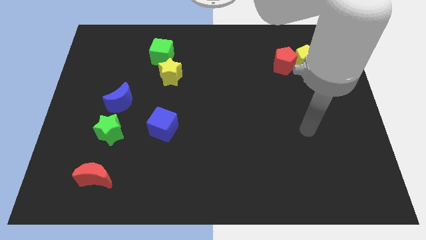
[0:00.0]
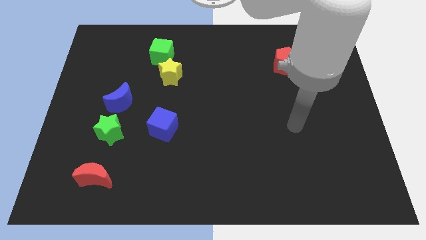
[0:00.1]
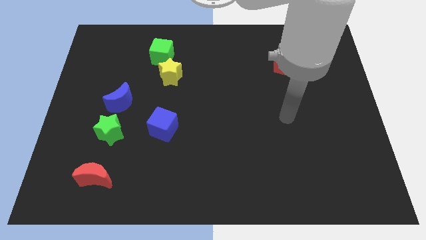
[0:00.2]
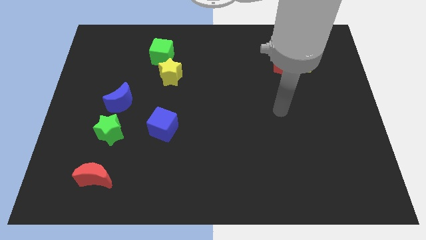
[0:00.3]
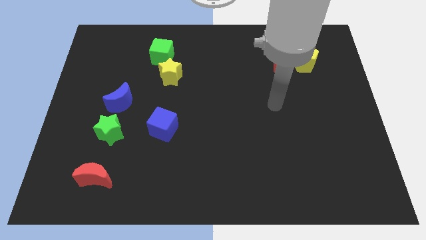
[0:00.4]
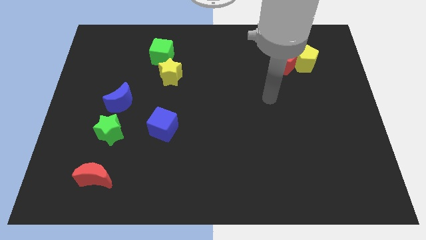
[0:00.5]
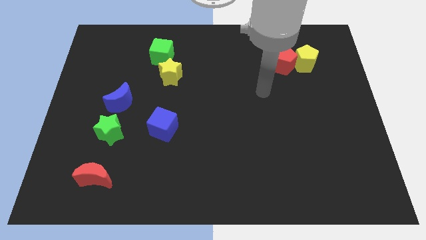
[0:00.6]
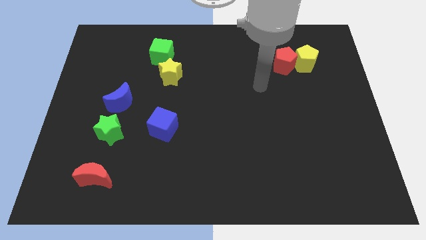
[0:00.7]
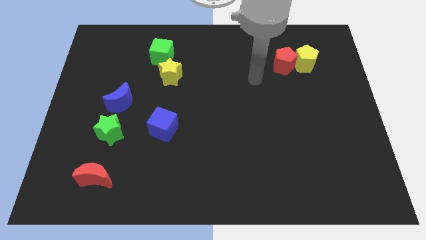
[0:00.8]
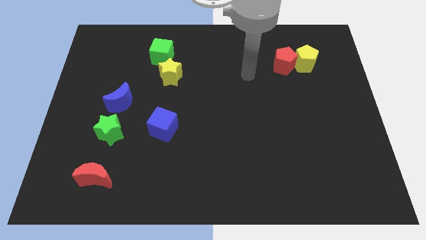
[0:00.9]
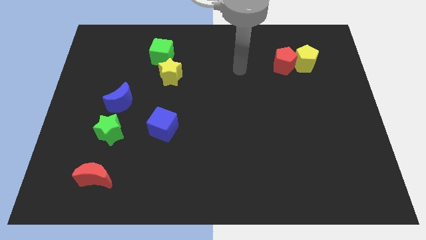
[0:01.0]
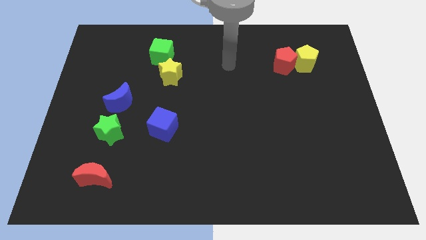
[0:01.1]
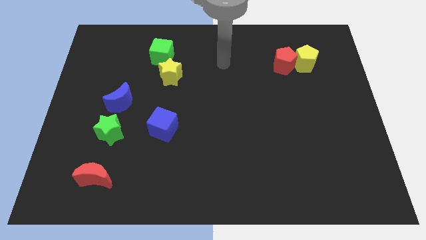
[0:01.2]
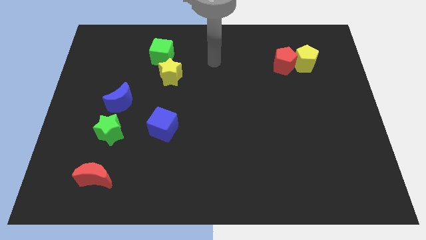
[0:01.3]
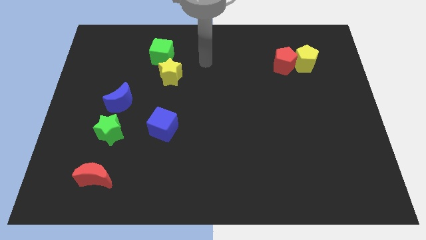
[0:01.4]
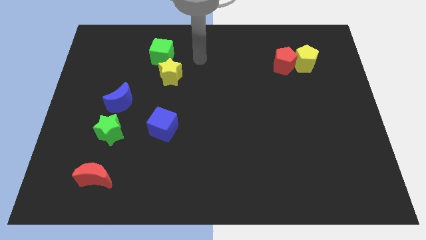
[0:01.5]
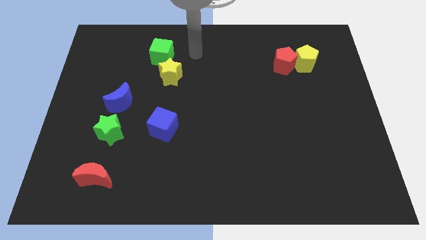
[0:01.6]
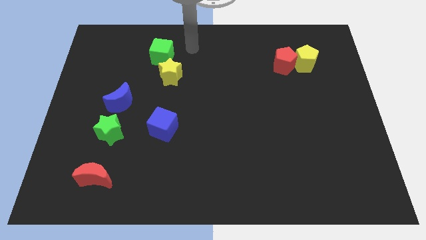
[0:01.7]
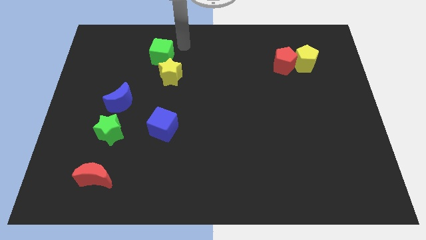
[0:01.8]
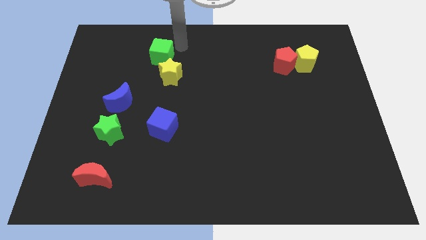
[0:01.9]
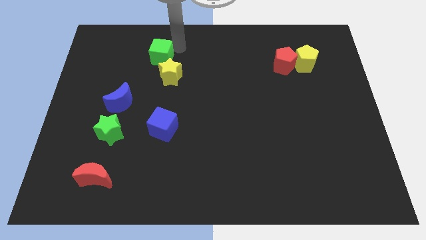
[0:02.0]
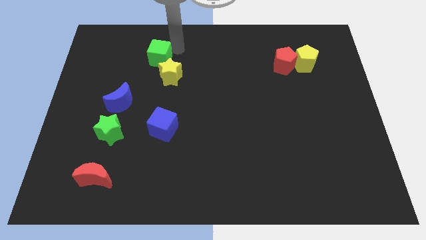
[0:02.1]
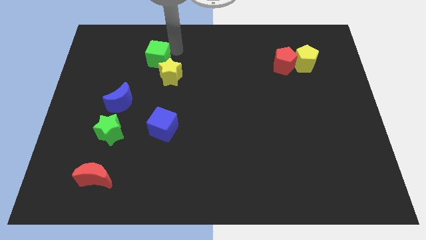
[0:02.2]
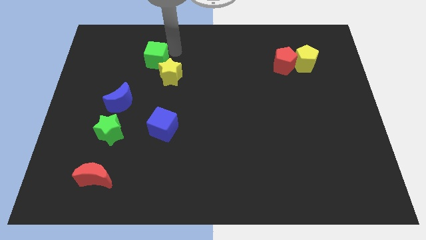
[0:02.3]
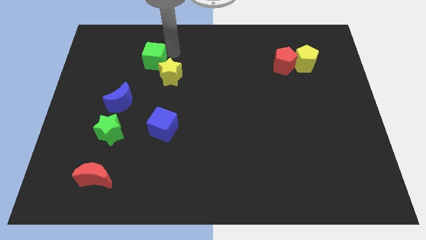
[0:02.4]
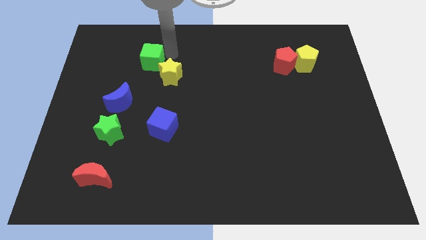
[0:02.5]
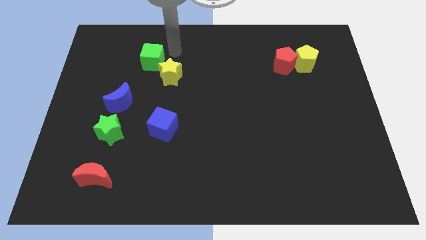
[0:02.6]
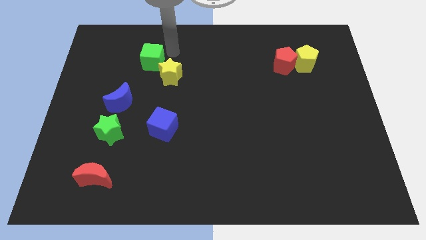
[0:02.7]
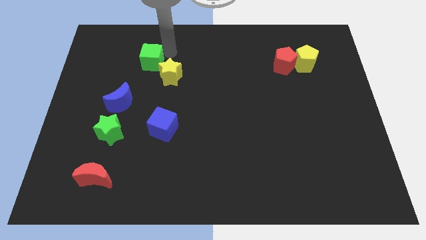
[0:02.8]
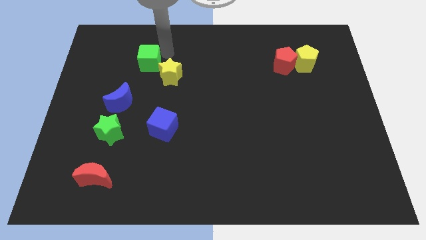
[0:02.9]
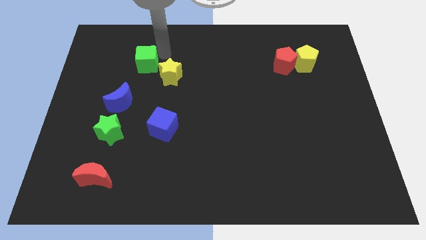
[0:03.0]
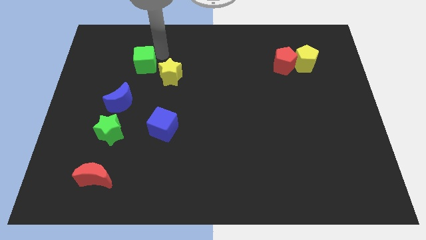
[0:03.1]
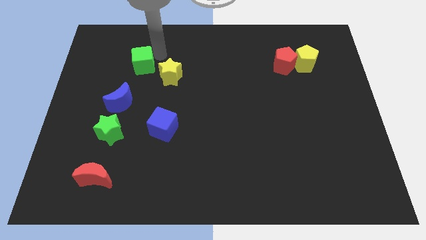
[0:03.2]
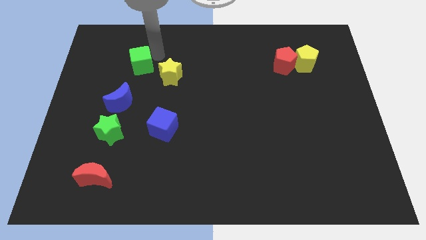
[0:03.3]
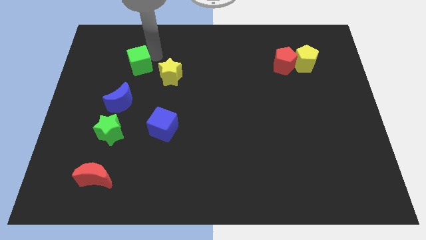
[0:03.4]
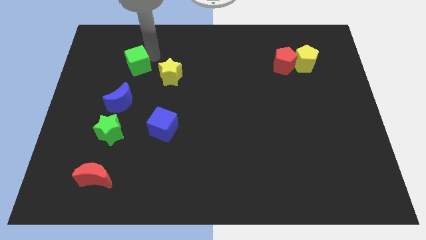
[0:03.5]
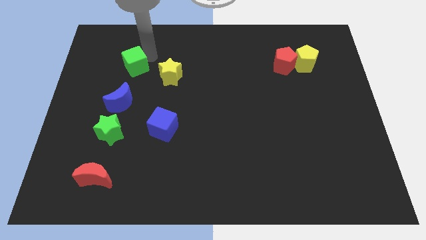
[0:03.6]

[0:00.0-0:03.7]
slightly slide the green cube diagonally down and to the left

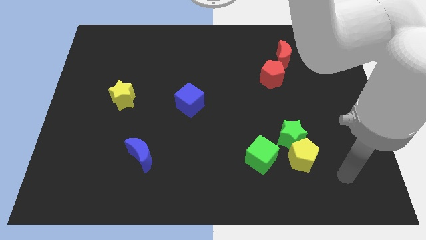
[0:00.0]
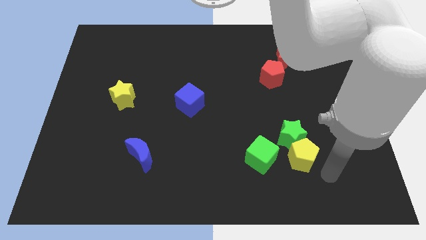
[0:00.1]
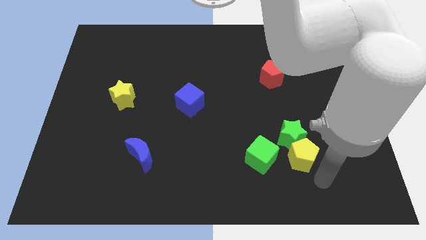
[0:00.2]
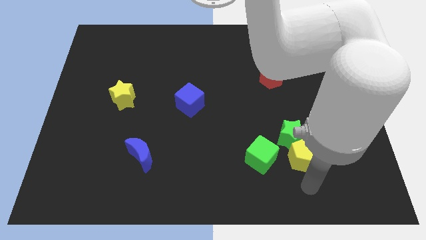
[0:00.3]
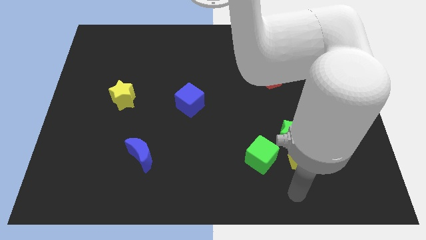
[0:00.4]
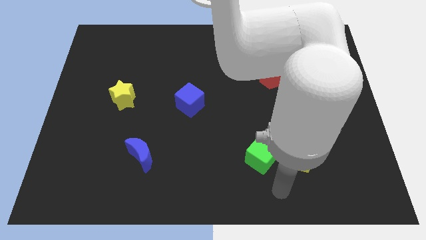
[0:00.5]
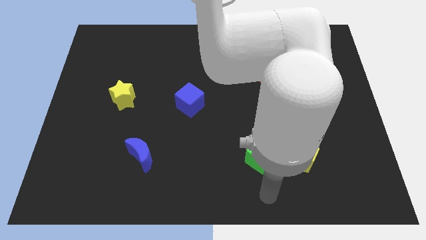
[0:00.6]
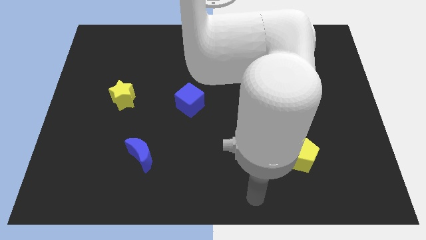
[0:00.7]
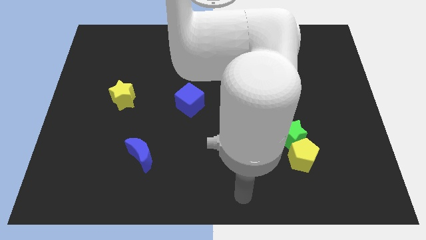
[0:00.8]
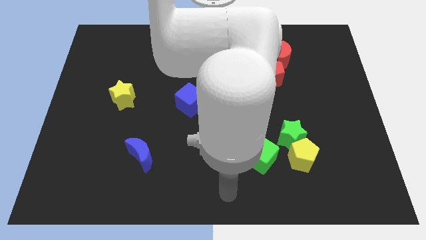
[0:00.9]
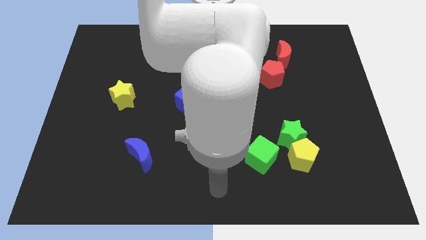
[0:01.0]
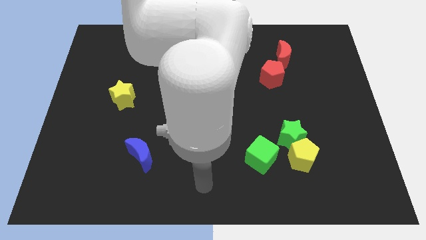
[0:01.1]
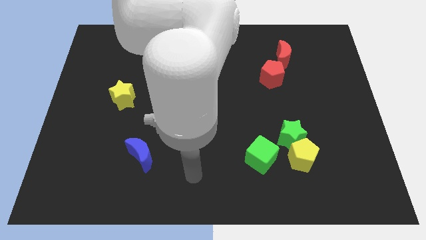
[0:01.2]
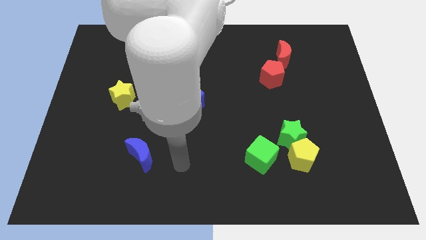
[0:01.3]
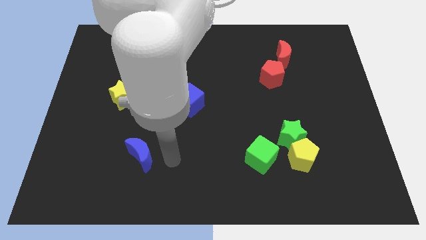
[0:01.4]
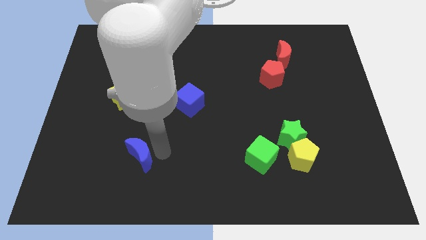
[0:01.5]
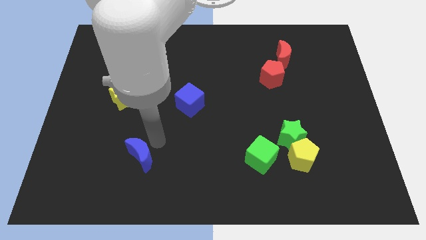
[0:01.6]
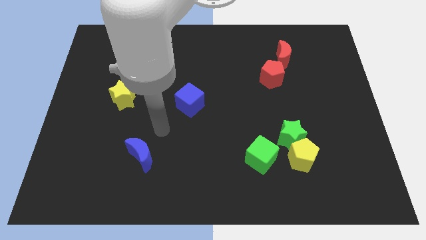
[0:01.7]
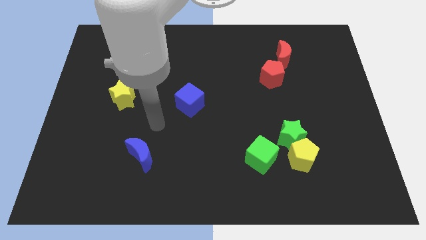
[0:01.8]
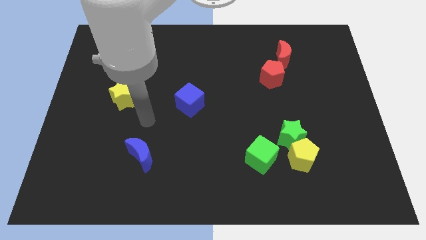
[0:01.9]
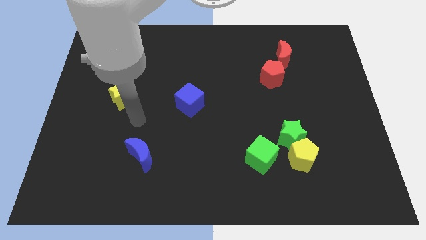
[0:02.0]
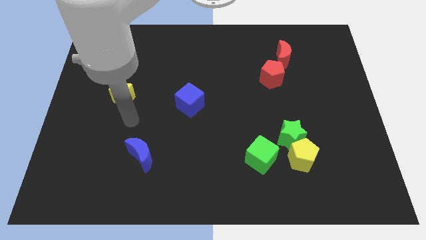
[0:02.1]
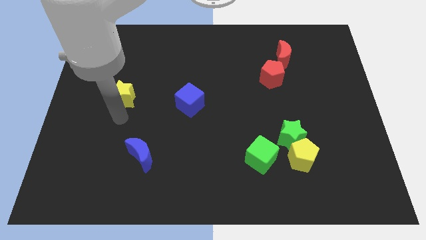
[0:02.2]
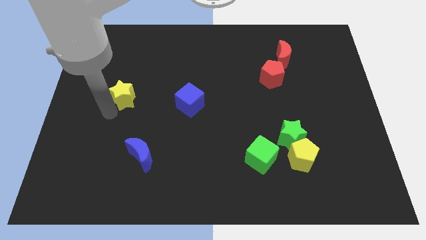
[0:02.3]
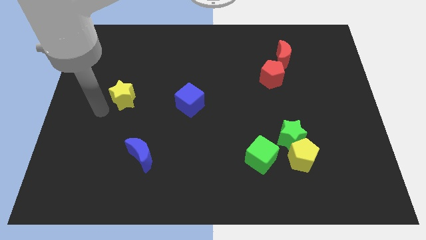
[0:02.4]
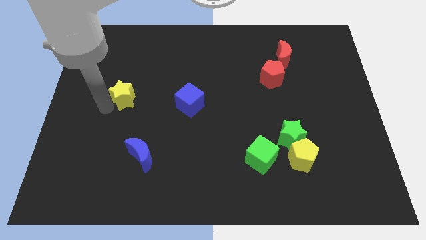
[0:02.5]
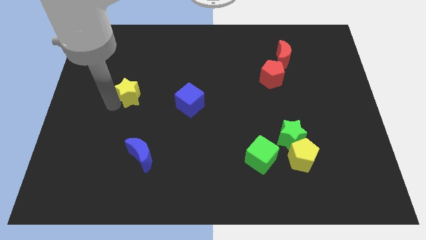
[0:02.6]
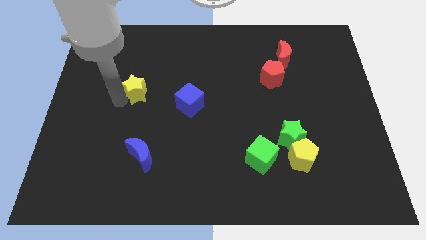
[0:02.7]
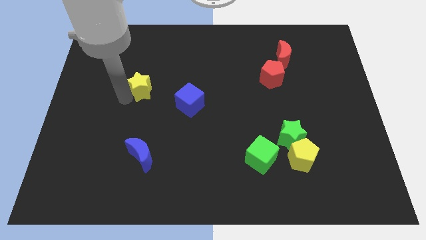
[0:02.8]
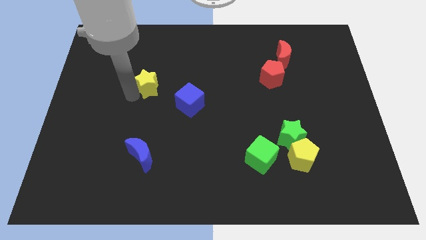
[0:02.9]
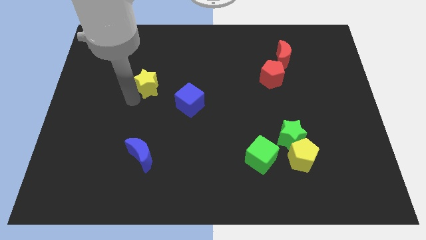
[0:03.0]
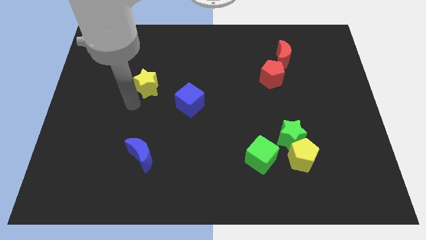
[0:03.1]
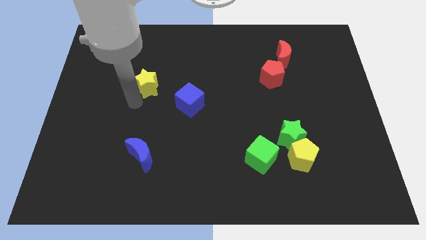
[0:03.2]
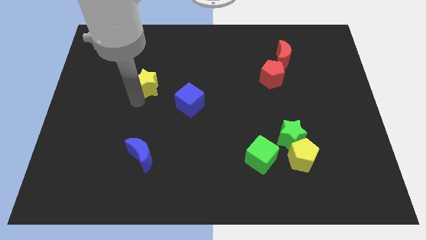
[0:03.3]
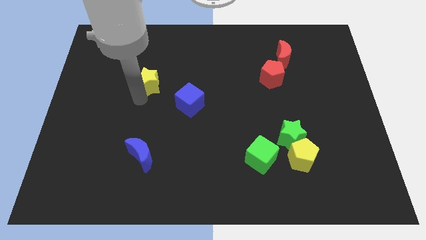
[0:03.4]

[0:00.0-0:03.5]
slightly push the yellow star upwards and to the right

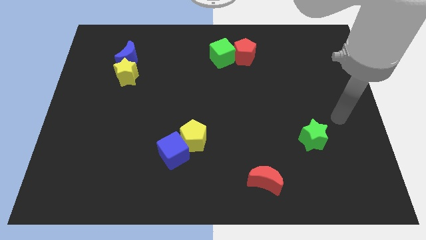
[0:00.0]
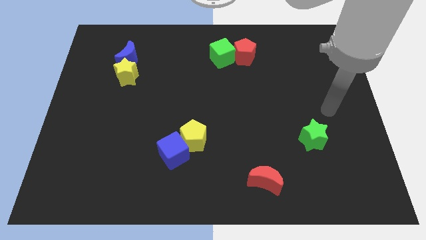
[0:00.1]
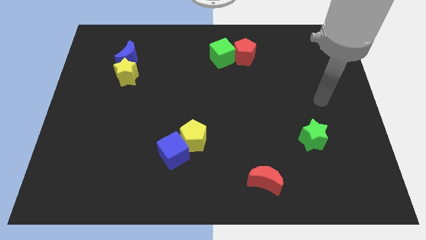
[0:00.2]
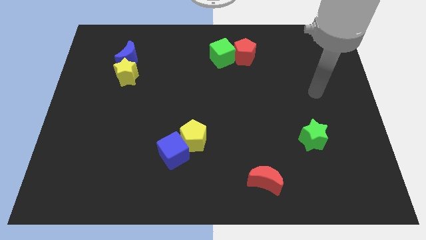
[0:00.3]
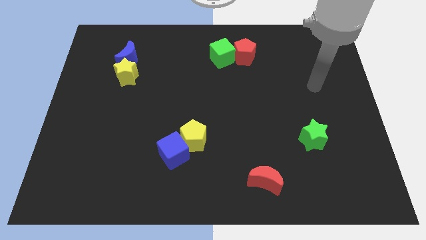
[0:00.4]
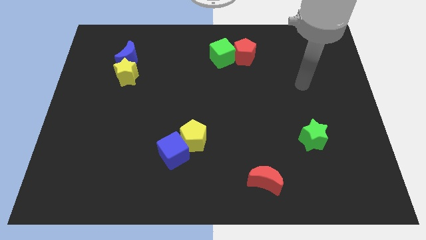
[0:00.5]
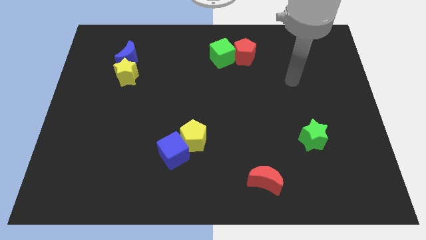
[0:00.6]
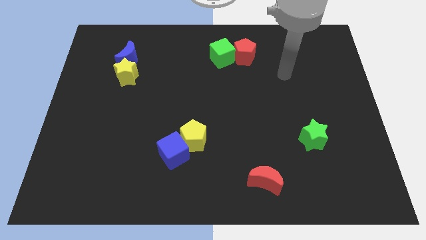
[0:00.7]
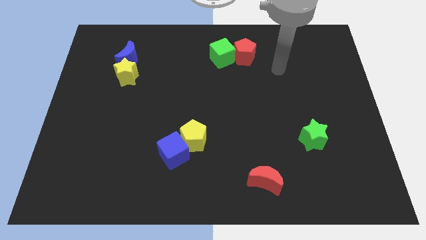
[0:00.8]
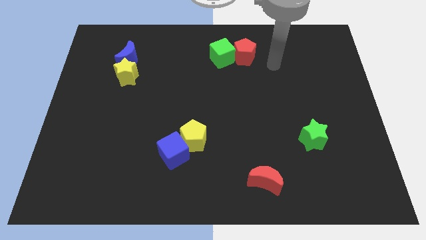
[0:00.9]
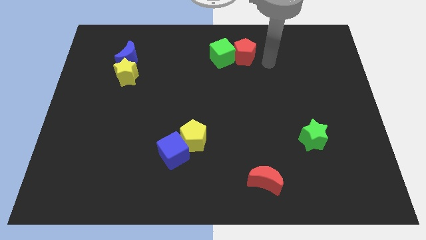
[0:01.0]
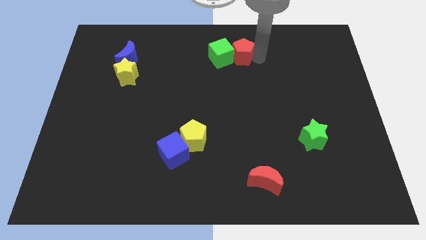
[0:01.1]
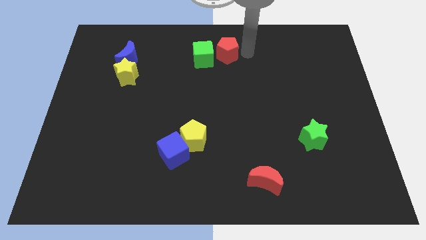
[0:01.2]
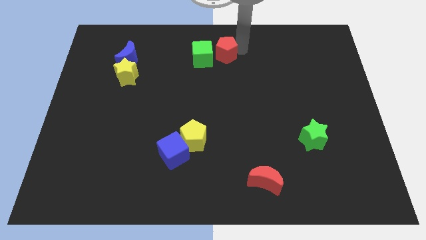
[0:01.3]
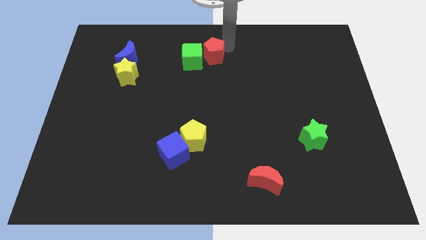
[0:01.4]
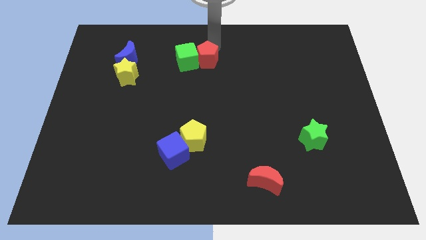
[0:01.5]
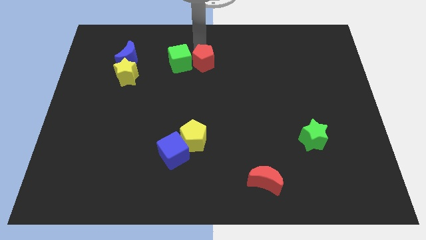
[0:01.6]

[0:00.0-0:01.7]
push the green cube downwards and then left a little bit
